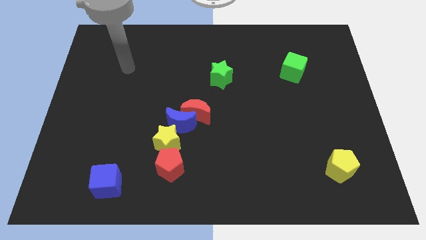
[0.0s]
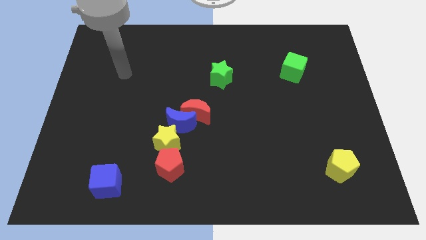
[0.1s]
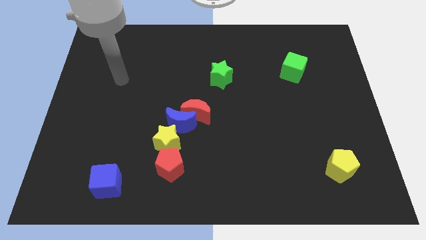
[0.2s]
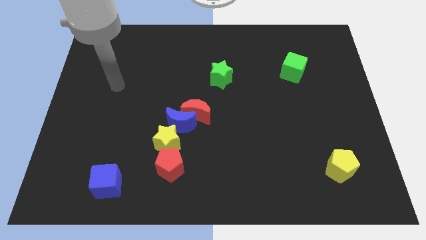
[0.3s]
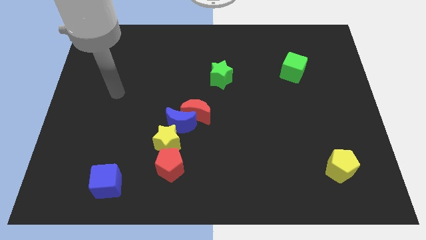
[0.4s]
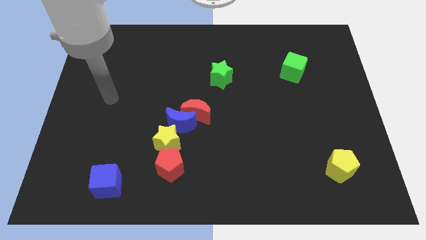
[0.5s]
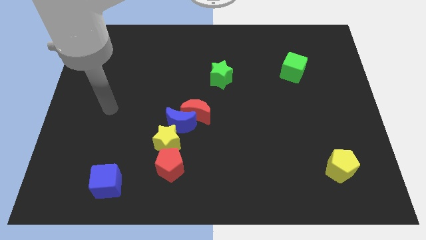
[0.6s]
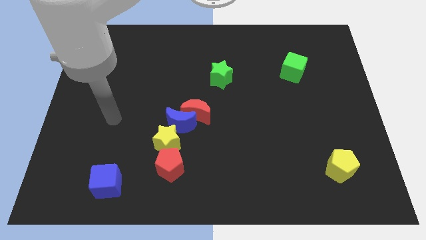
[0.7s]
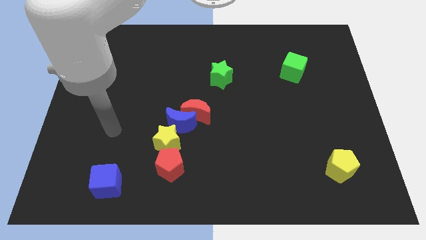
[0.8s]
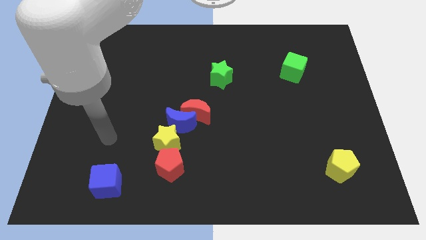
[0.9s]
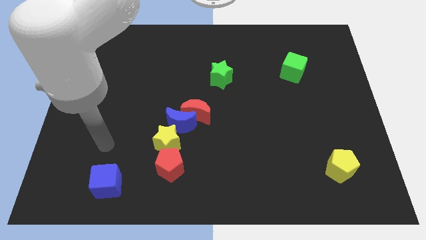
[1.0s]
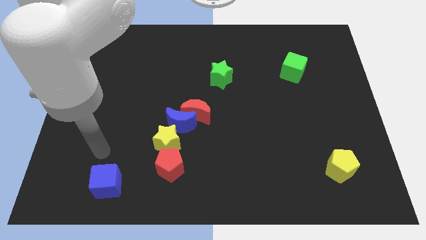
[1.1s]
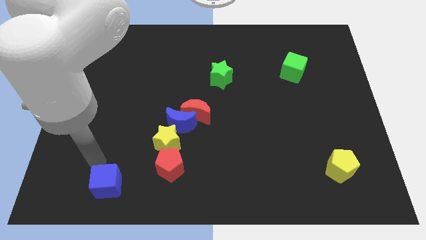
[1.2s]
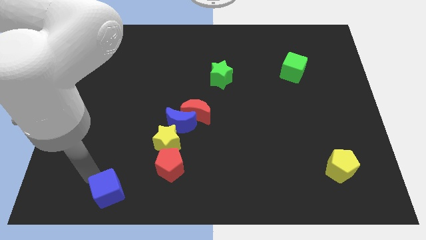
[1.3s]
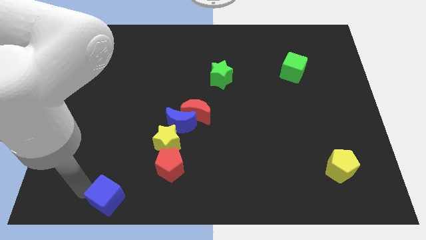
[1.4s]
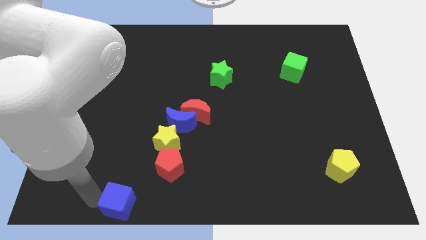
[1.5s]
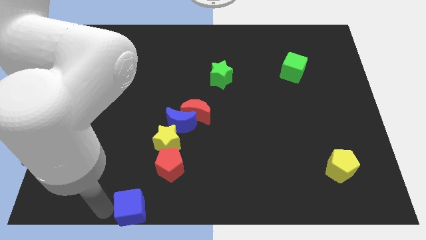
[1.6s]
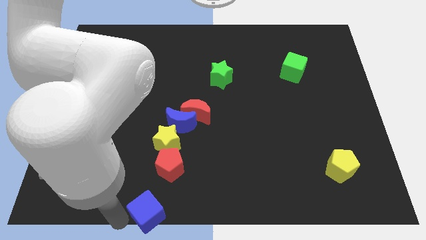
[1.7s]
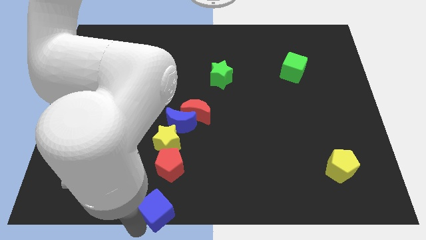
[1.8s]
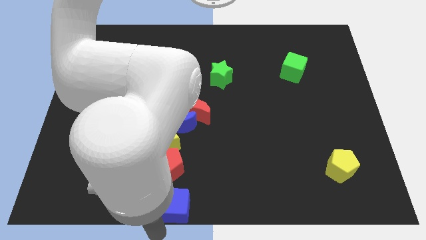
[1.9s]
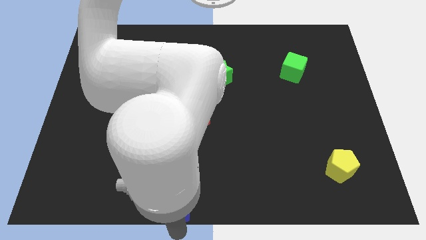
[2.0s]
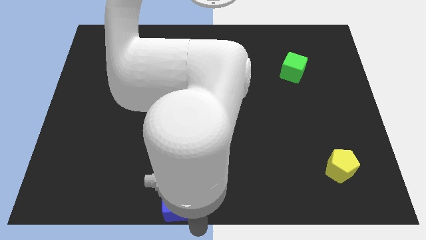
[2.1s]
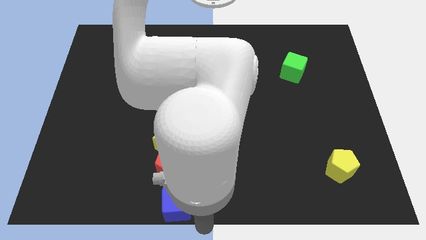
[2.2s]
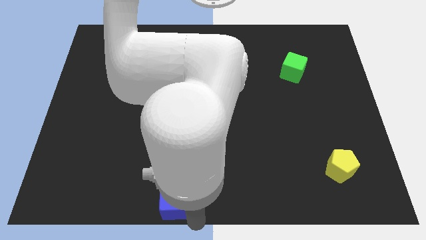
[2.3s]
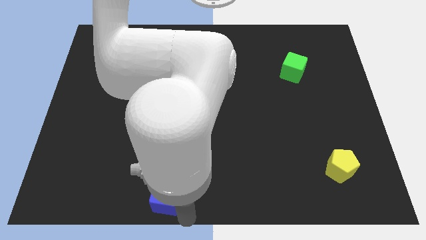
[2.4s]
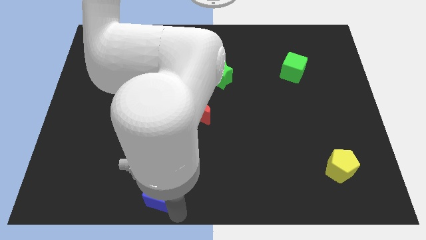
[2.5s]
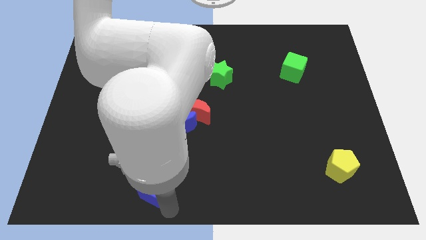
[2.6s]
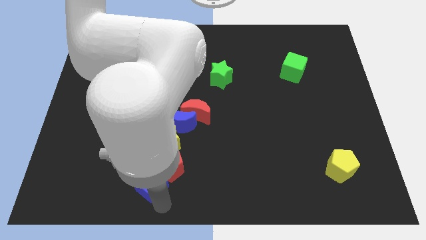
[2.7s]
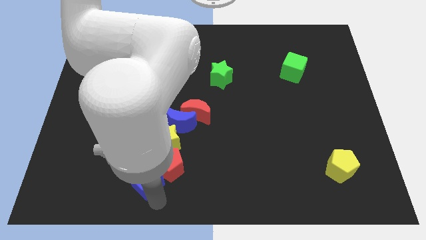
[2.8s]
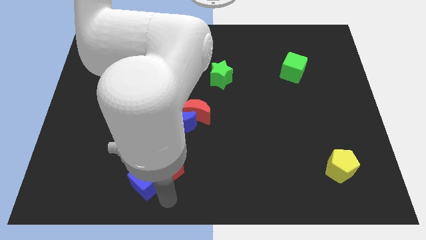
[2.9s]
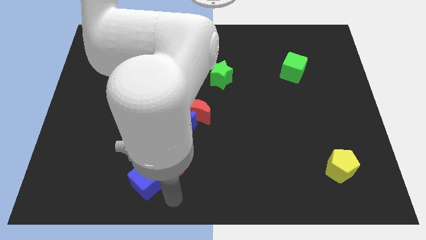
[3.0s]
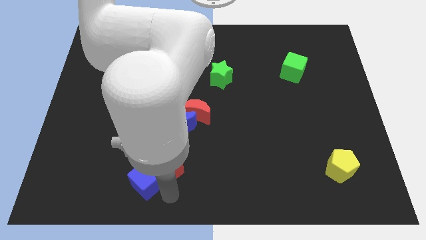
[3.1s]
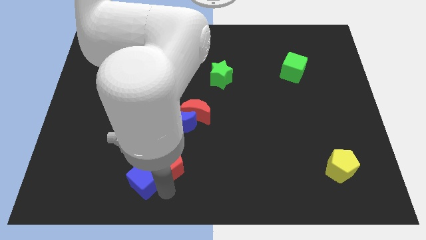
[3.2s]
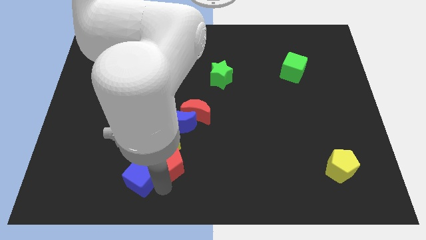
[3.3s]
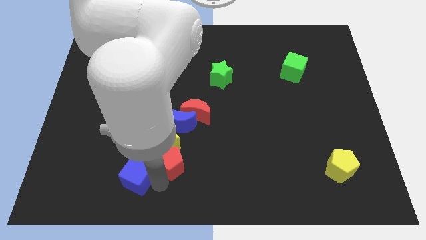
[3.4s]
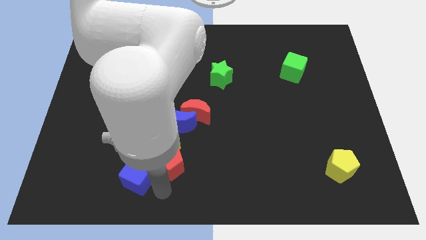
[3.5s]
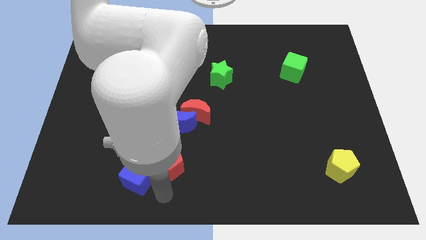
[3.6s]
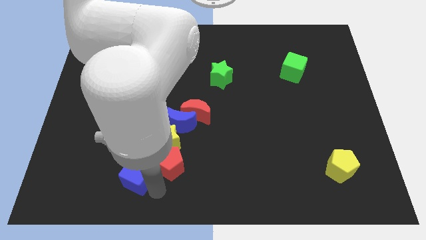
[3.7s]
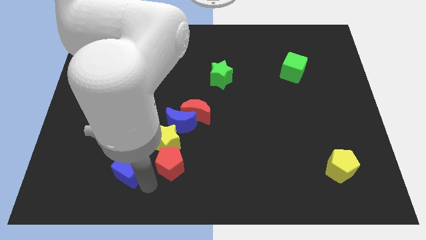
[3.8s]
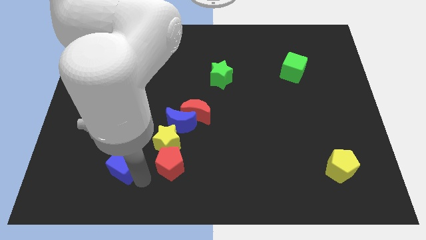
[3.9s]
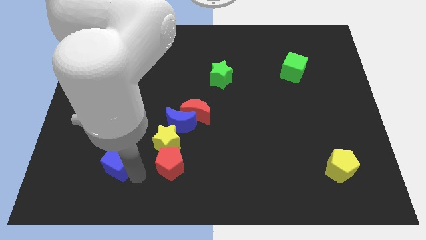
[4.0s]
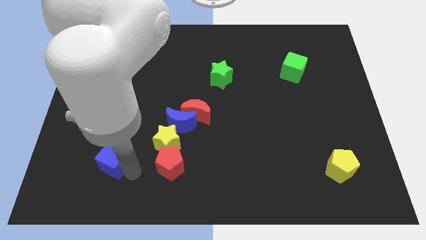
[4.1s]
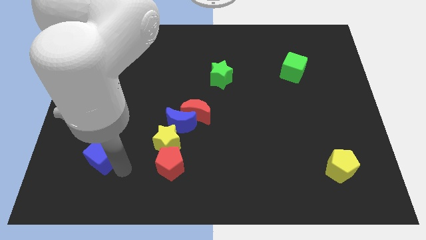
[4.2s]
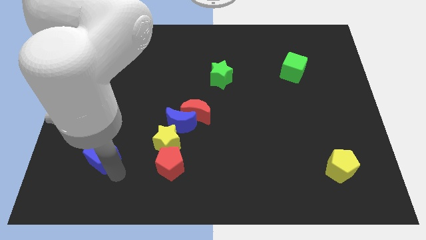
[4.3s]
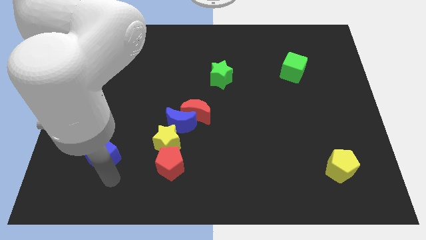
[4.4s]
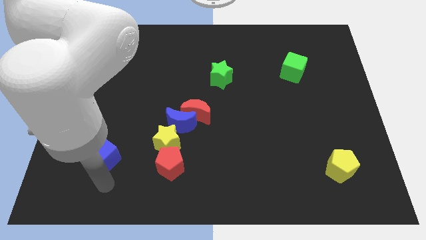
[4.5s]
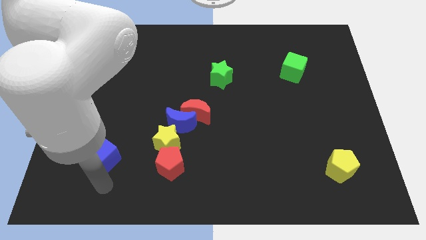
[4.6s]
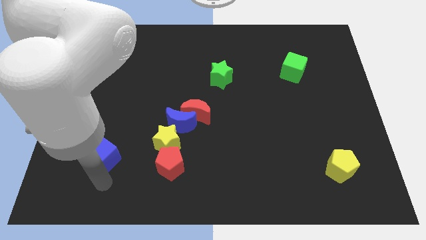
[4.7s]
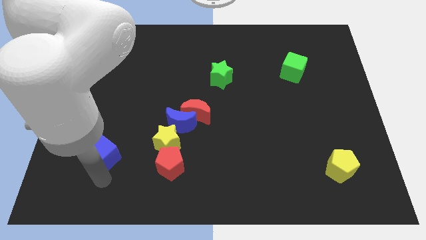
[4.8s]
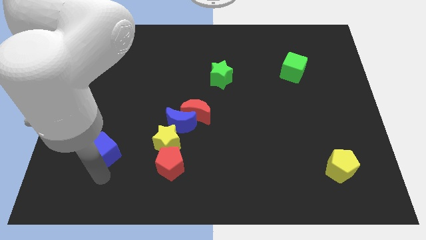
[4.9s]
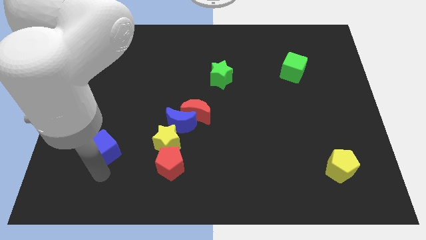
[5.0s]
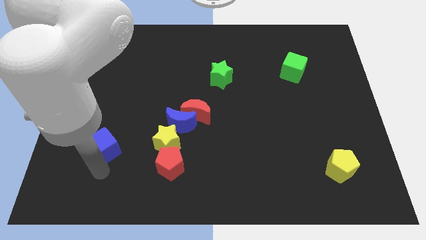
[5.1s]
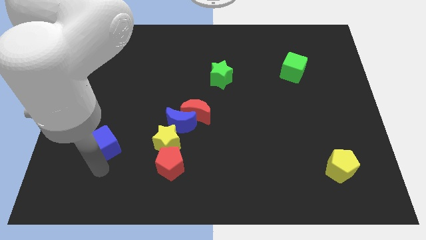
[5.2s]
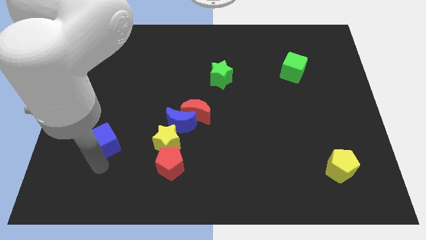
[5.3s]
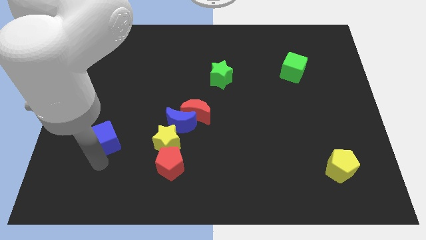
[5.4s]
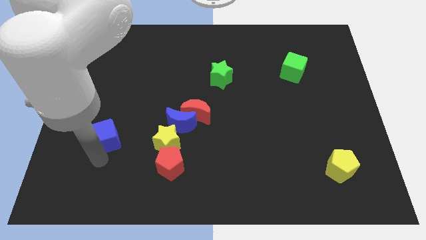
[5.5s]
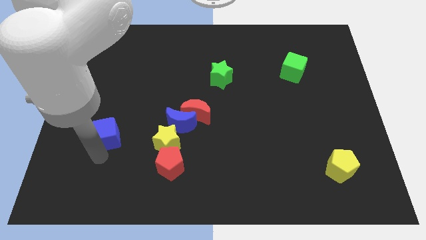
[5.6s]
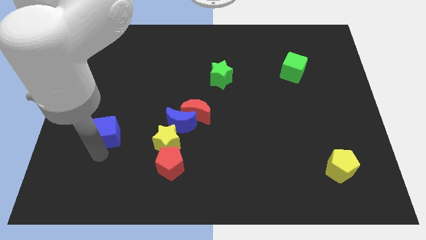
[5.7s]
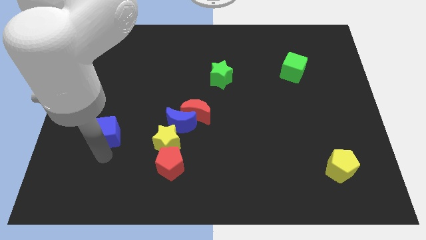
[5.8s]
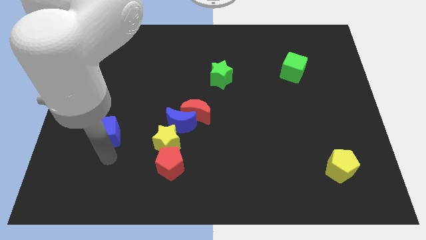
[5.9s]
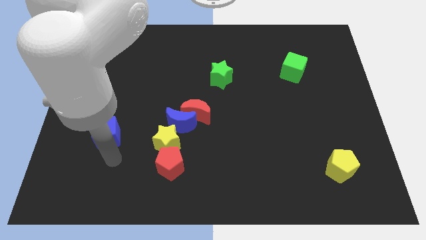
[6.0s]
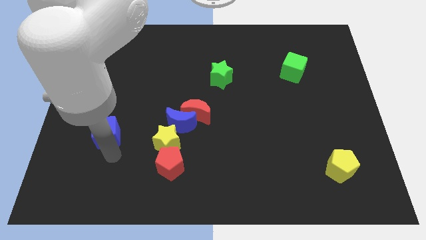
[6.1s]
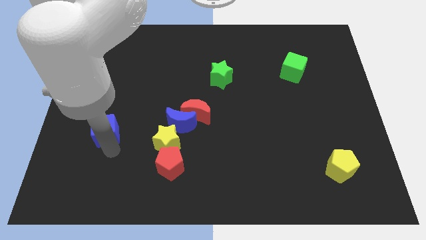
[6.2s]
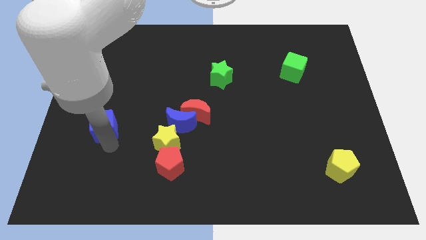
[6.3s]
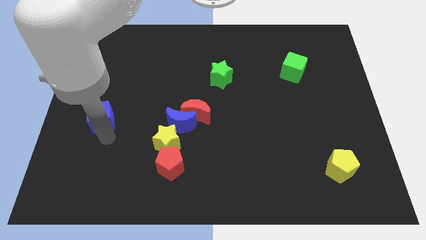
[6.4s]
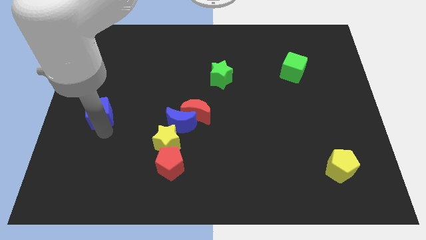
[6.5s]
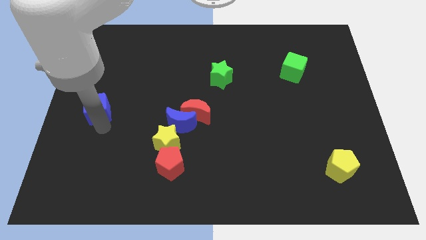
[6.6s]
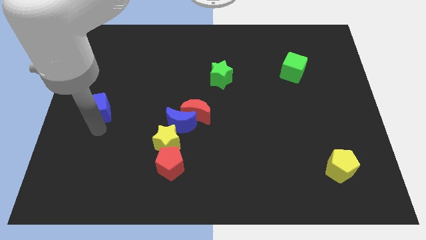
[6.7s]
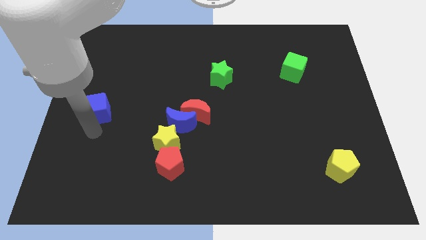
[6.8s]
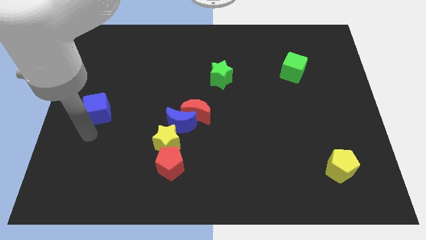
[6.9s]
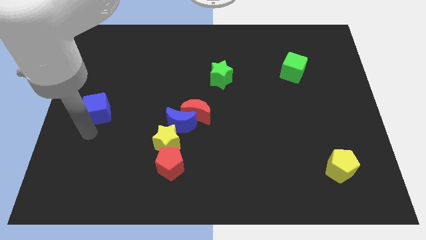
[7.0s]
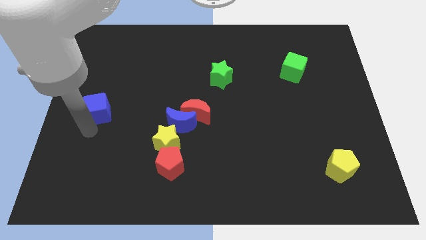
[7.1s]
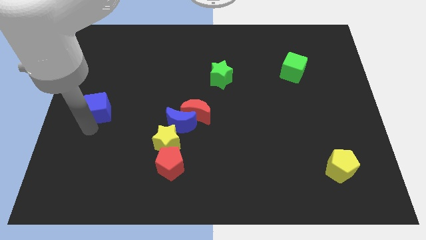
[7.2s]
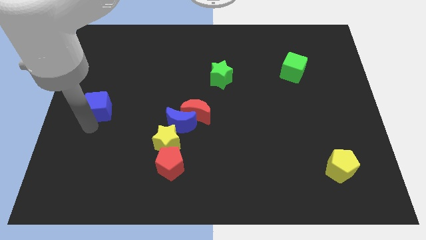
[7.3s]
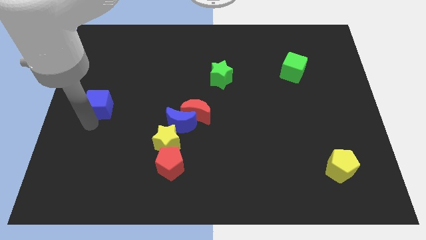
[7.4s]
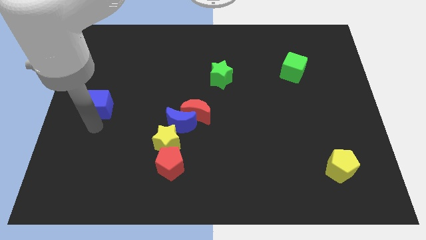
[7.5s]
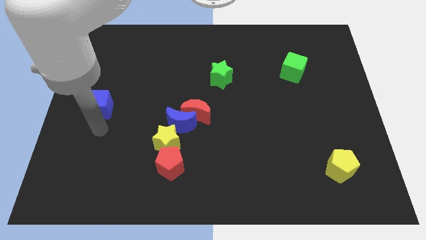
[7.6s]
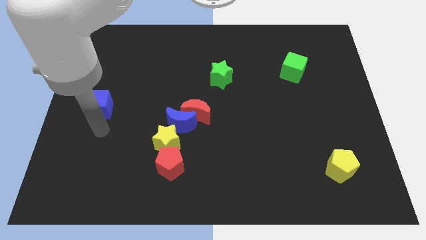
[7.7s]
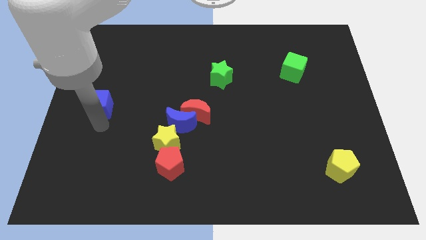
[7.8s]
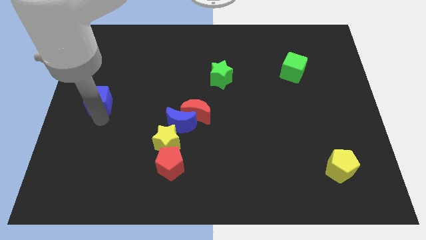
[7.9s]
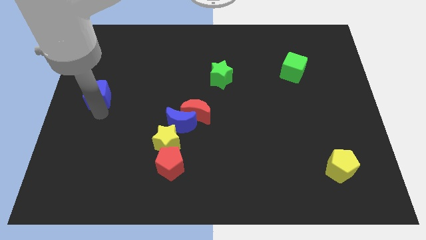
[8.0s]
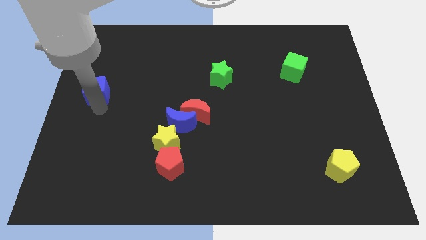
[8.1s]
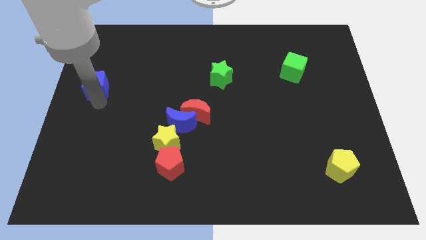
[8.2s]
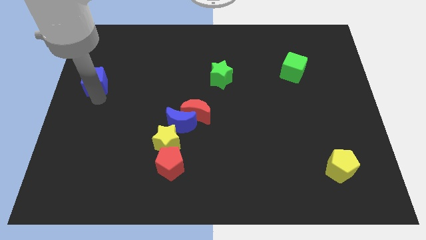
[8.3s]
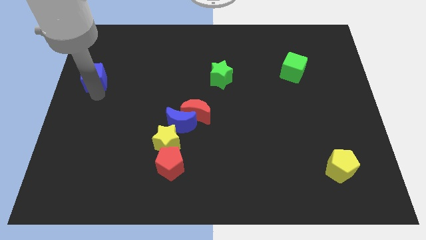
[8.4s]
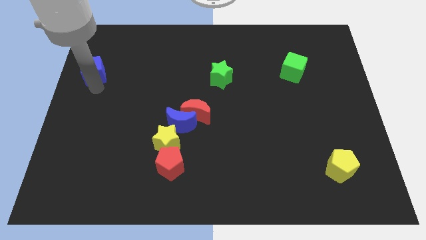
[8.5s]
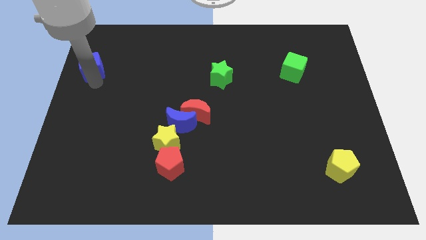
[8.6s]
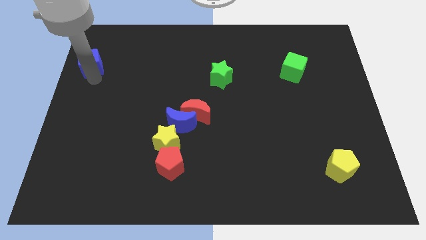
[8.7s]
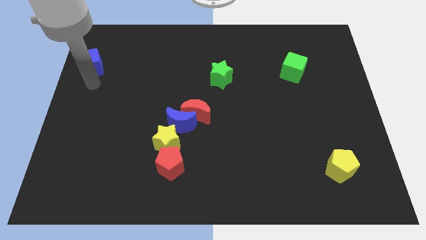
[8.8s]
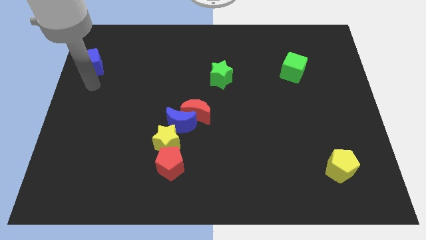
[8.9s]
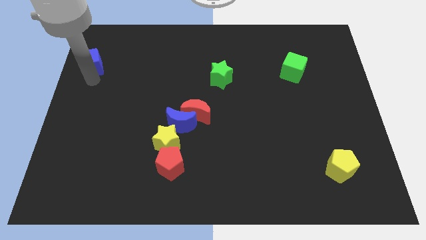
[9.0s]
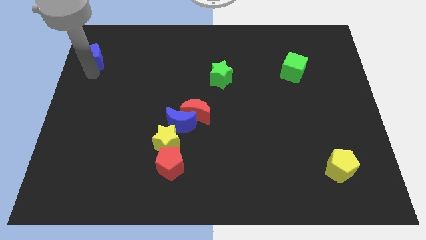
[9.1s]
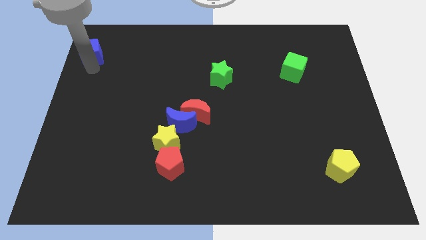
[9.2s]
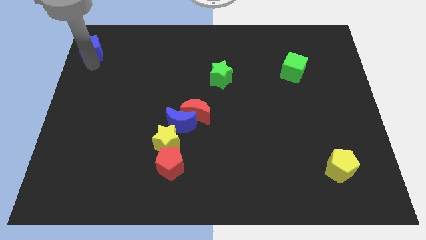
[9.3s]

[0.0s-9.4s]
push the blue cube to the upper left corner
